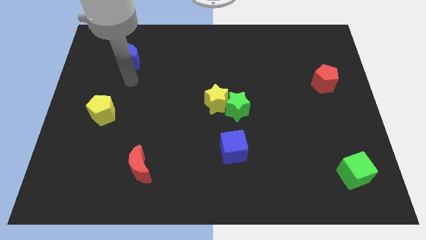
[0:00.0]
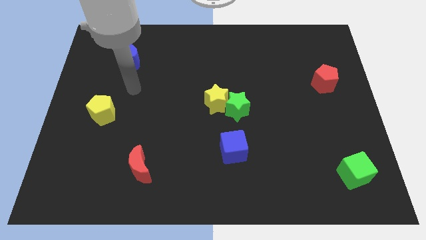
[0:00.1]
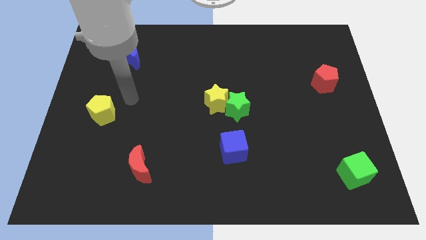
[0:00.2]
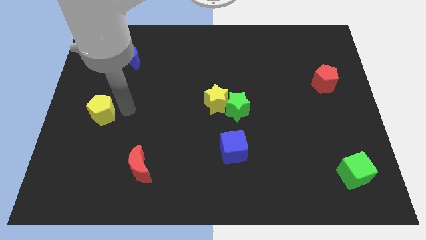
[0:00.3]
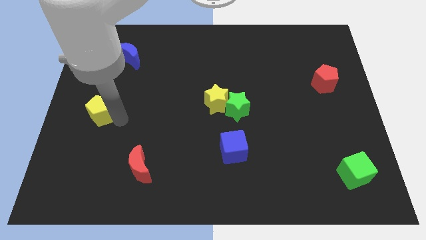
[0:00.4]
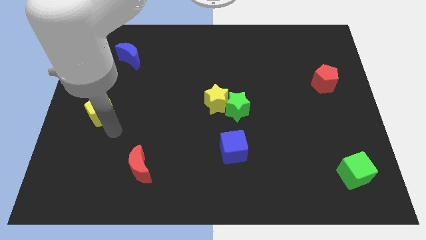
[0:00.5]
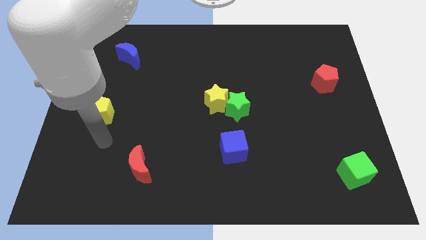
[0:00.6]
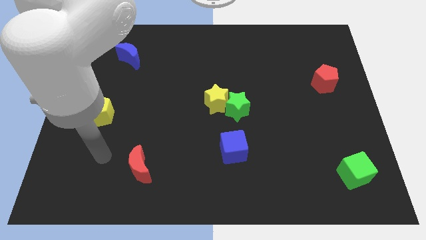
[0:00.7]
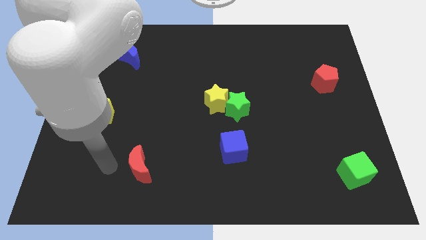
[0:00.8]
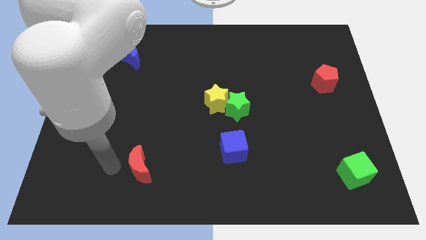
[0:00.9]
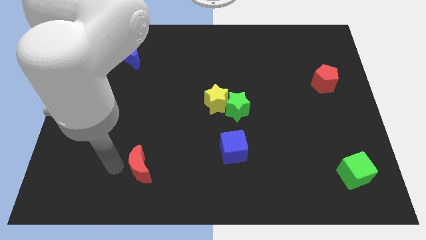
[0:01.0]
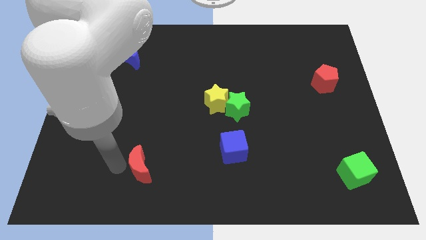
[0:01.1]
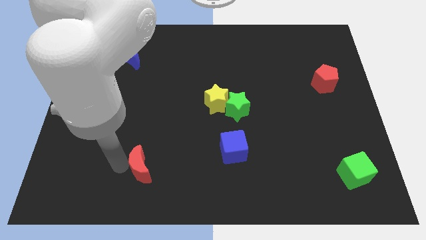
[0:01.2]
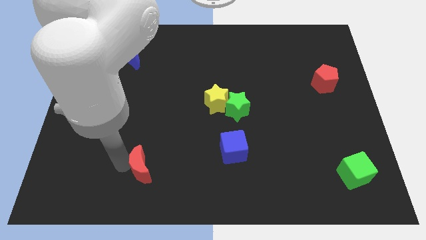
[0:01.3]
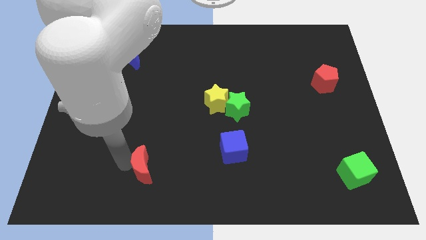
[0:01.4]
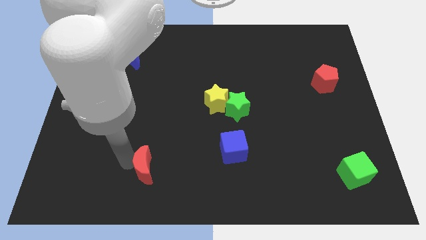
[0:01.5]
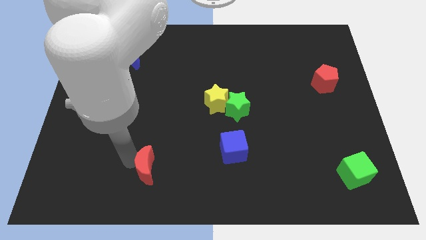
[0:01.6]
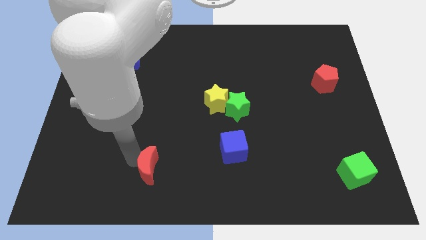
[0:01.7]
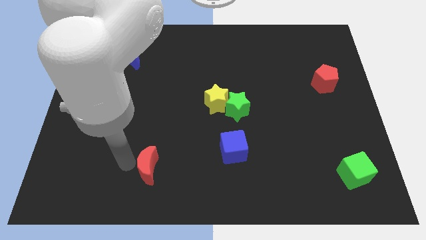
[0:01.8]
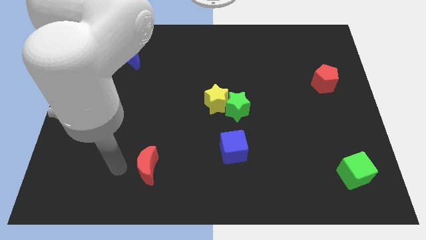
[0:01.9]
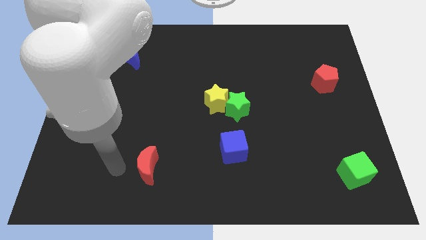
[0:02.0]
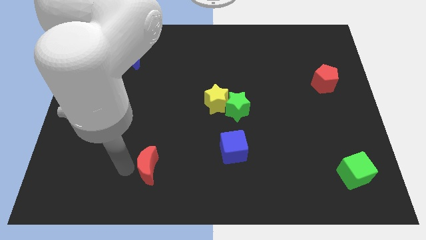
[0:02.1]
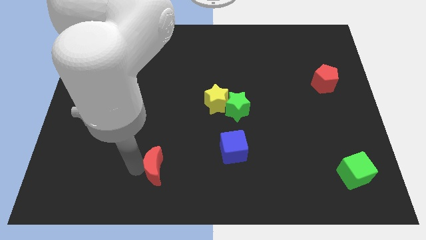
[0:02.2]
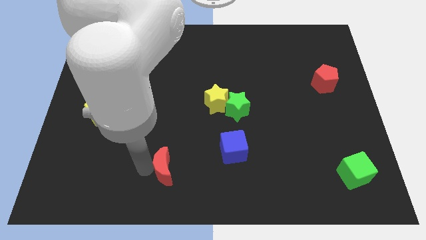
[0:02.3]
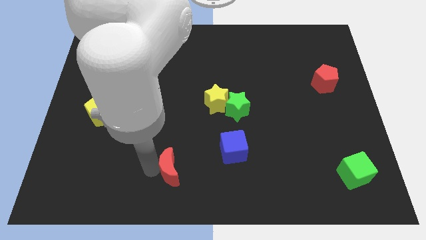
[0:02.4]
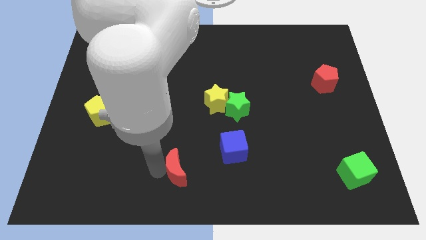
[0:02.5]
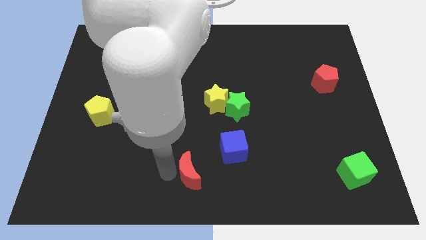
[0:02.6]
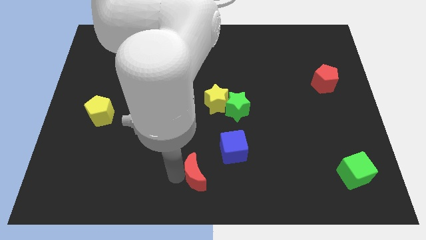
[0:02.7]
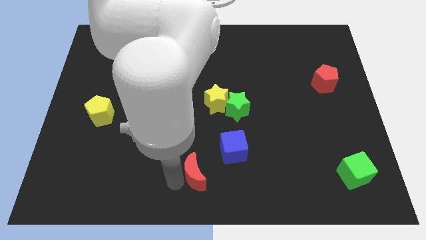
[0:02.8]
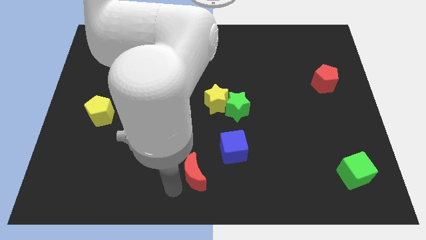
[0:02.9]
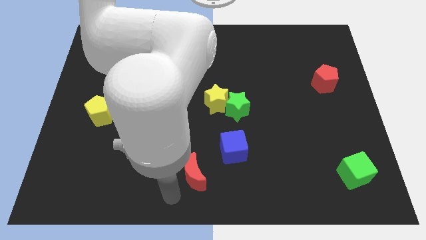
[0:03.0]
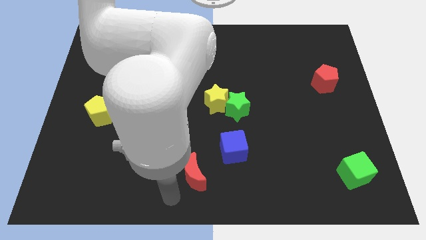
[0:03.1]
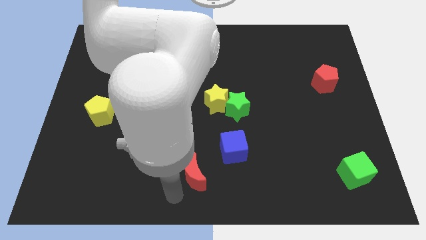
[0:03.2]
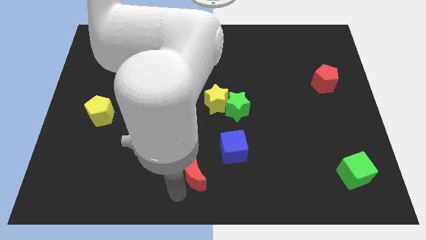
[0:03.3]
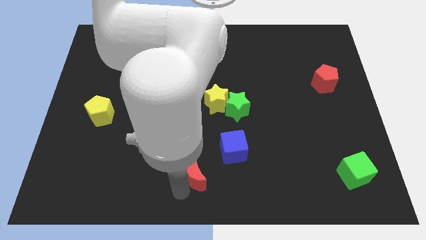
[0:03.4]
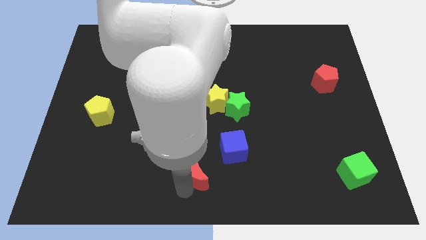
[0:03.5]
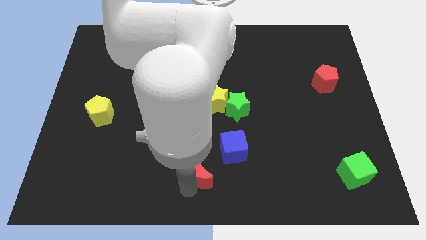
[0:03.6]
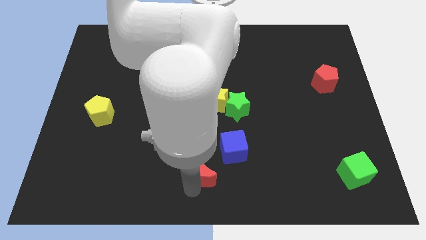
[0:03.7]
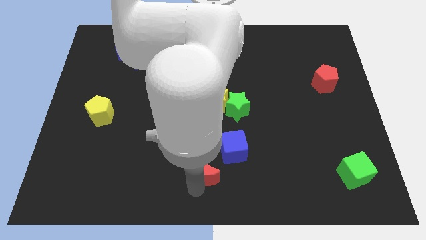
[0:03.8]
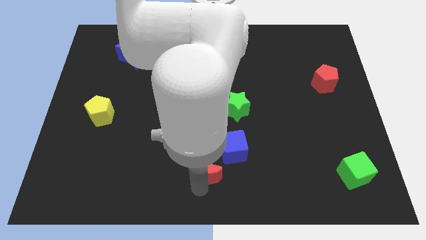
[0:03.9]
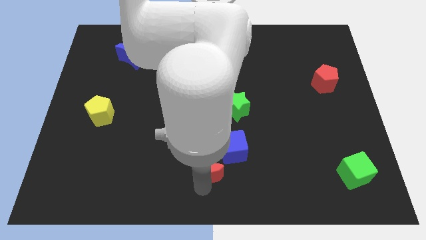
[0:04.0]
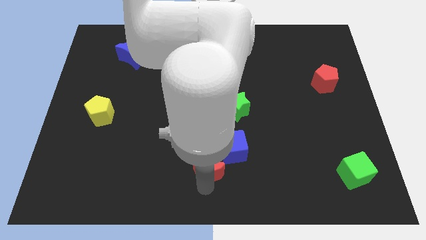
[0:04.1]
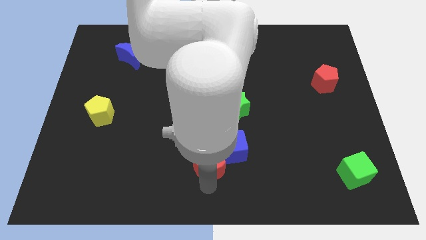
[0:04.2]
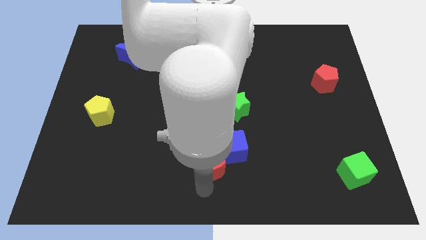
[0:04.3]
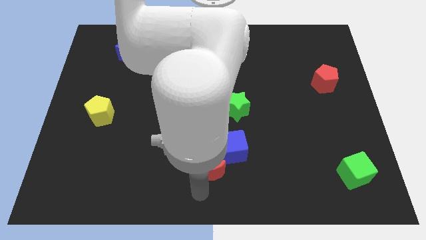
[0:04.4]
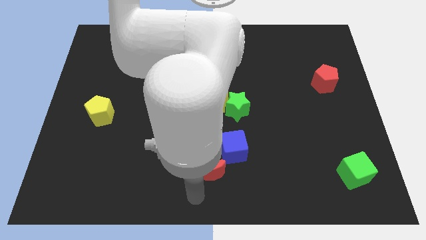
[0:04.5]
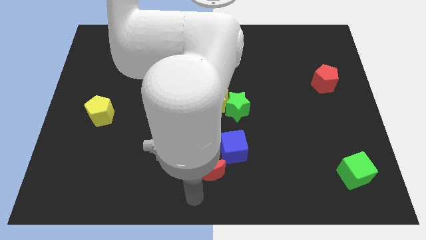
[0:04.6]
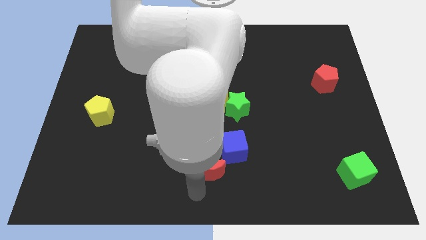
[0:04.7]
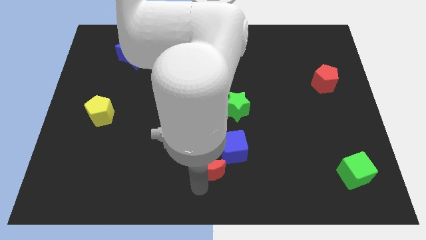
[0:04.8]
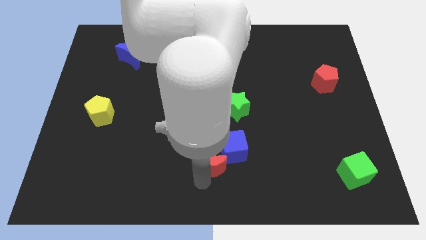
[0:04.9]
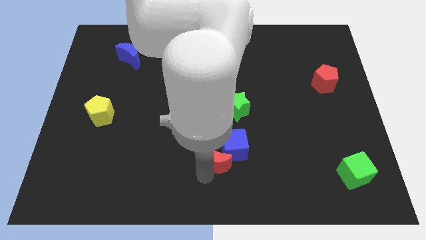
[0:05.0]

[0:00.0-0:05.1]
put the red moon close to the blue cube

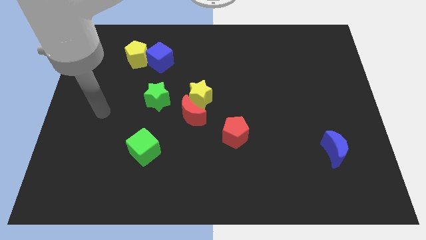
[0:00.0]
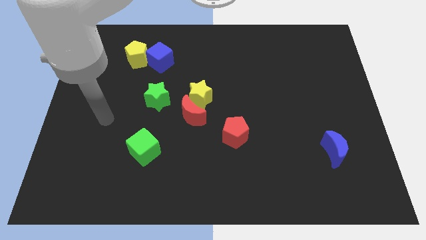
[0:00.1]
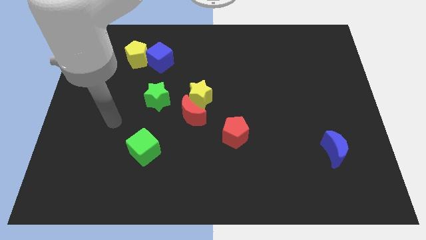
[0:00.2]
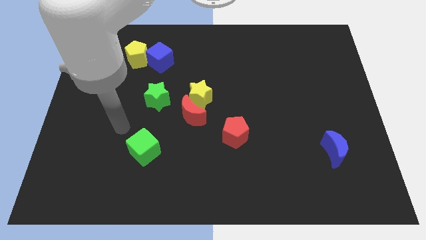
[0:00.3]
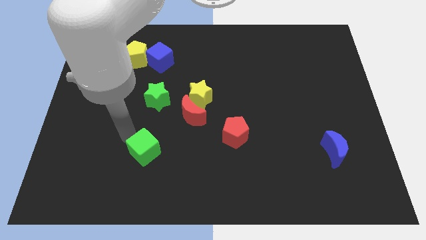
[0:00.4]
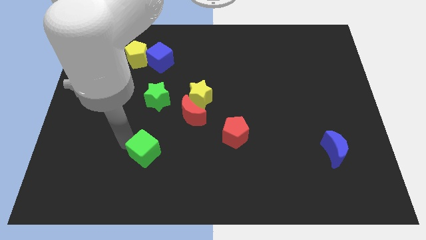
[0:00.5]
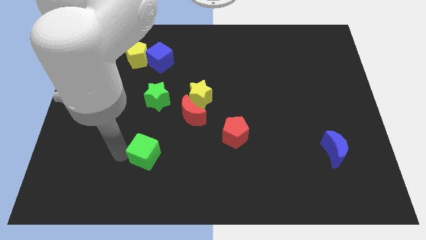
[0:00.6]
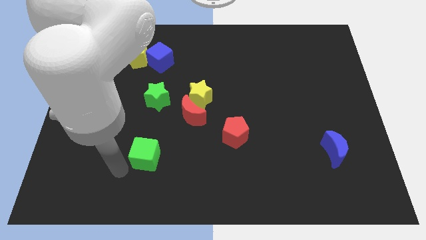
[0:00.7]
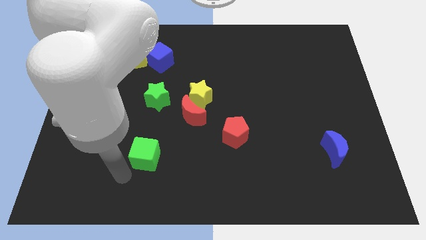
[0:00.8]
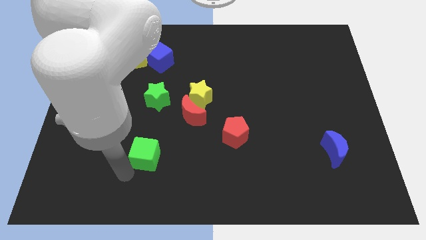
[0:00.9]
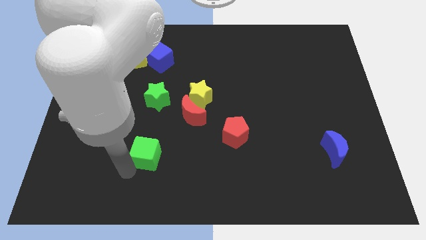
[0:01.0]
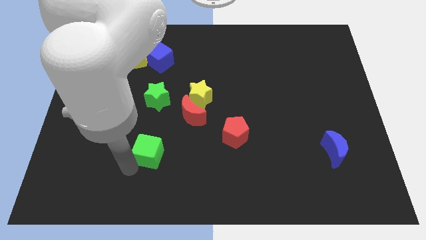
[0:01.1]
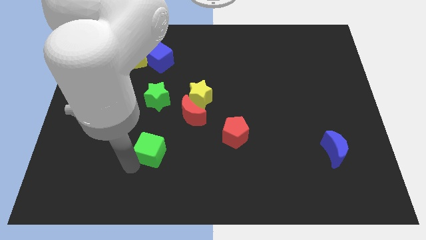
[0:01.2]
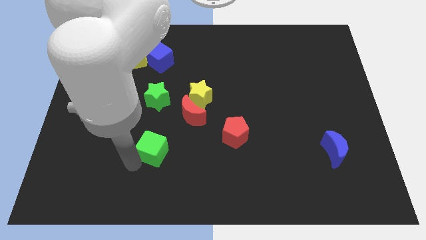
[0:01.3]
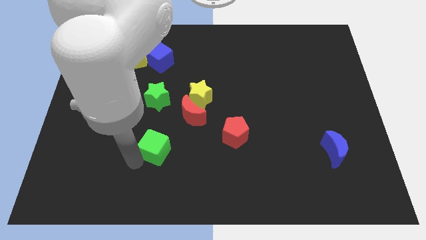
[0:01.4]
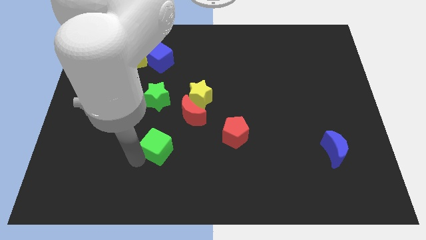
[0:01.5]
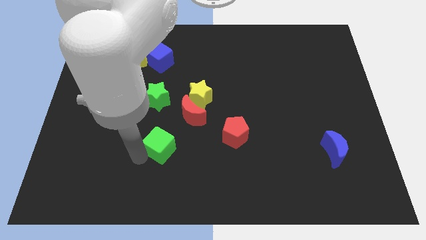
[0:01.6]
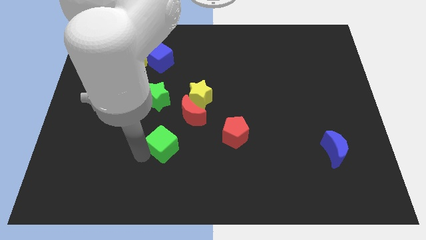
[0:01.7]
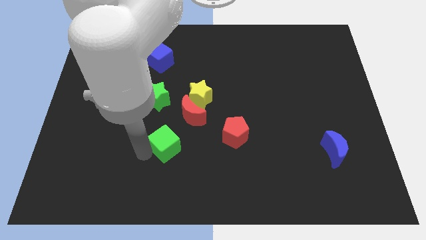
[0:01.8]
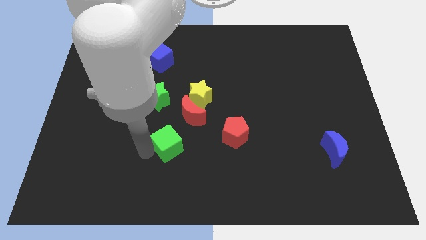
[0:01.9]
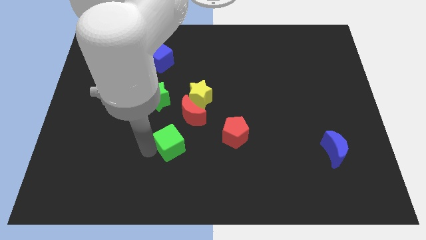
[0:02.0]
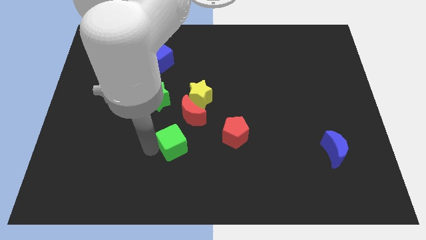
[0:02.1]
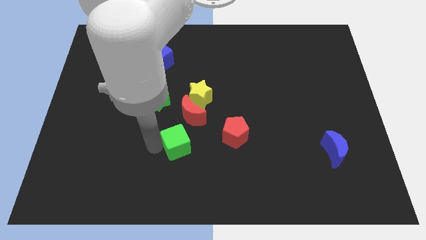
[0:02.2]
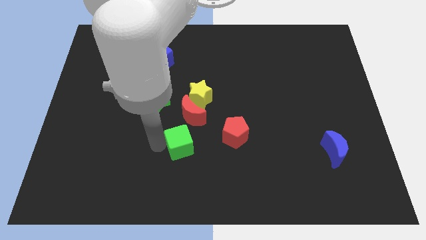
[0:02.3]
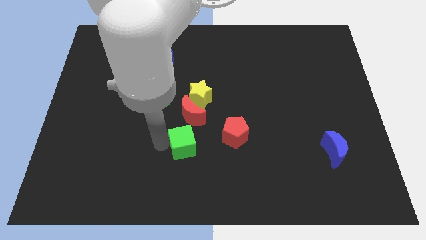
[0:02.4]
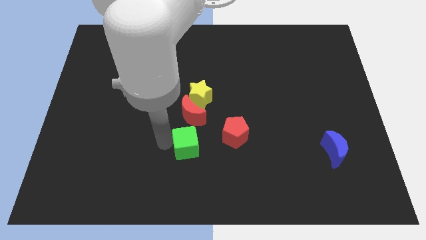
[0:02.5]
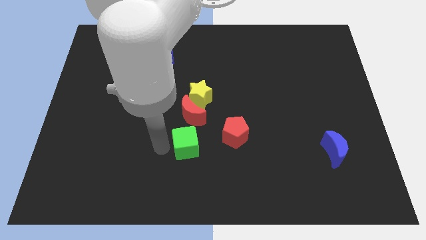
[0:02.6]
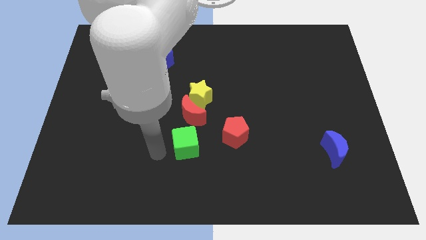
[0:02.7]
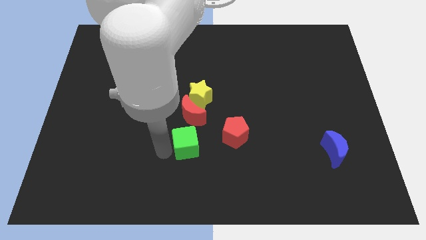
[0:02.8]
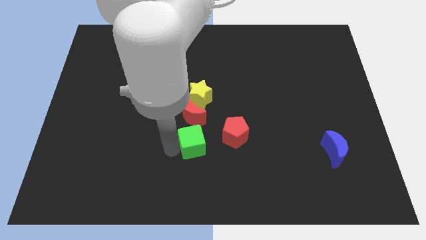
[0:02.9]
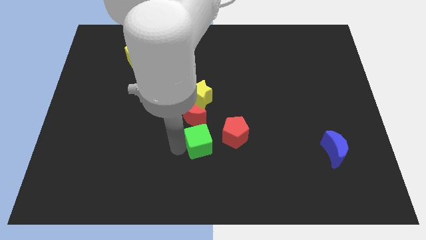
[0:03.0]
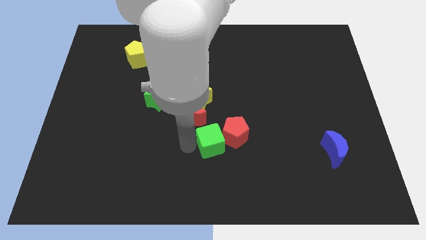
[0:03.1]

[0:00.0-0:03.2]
put the green cube close to the red pentagon

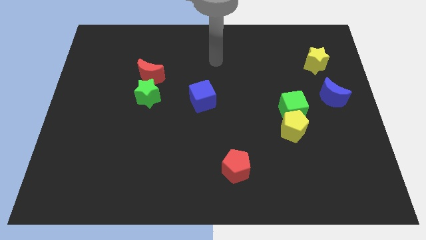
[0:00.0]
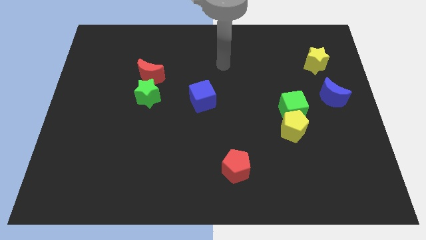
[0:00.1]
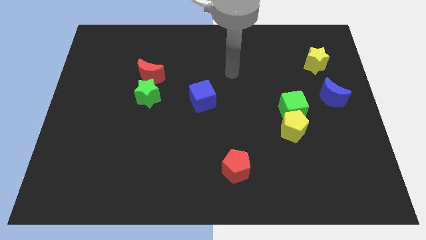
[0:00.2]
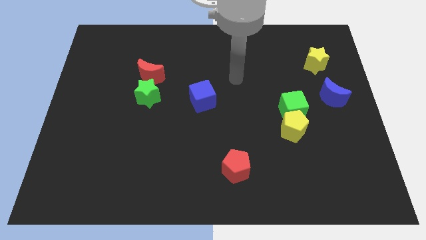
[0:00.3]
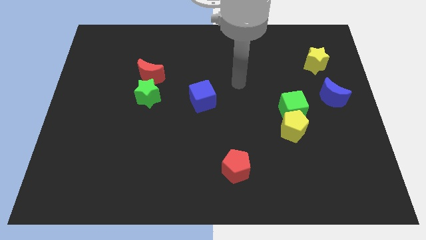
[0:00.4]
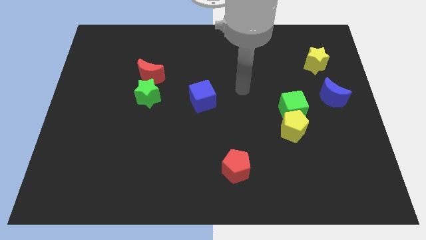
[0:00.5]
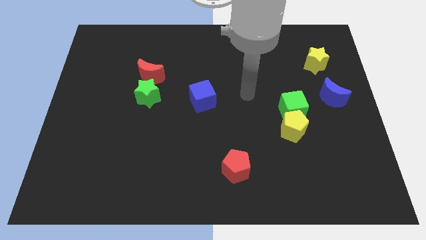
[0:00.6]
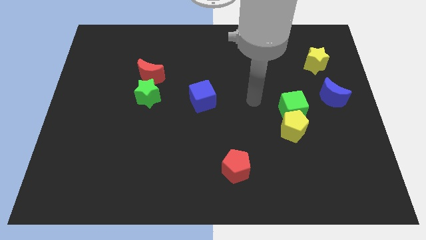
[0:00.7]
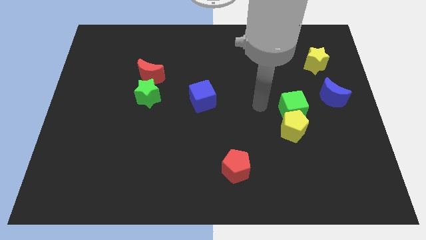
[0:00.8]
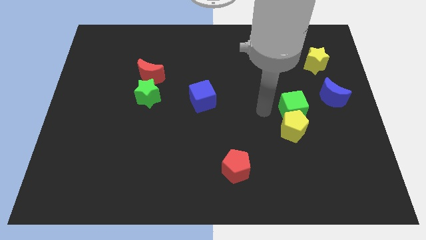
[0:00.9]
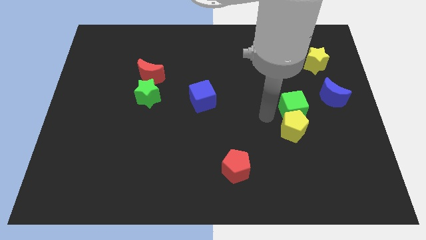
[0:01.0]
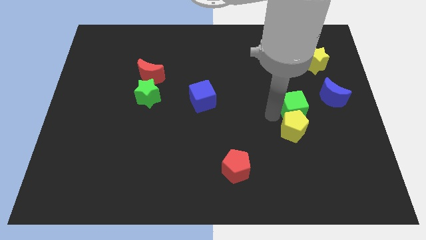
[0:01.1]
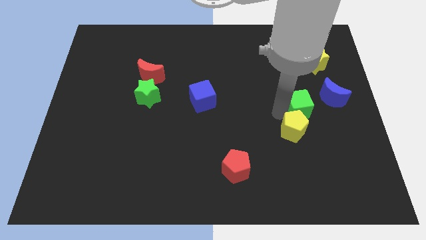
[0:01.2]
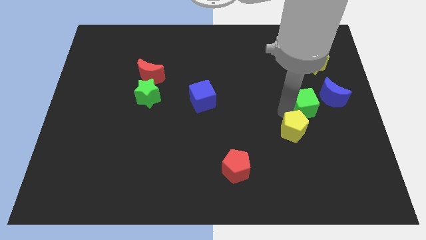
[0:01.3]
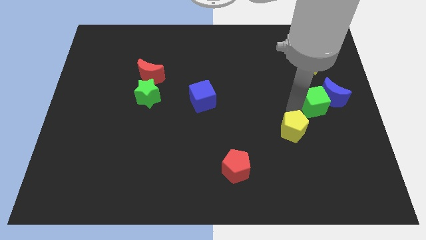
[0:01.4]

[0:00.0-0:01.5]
put the green cube towards the blue moon
